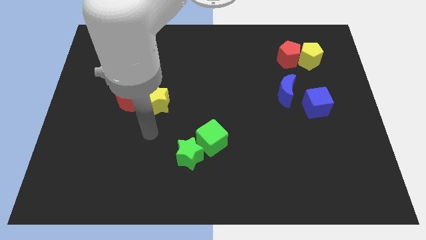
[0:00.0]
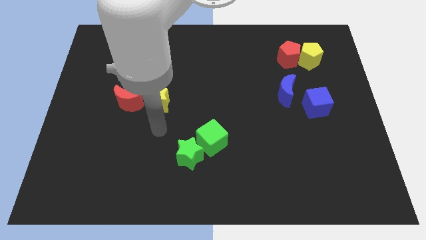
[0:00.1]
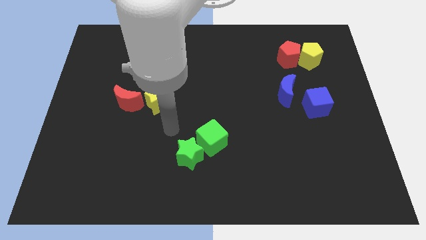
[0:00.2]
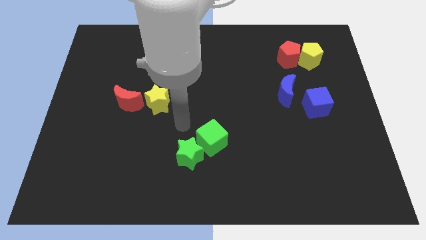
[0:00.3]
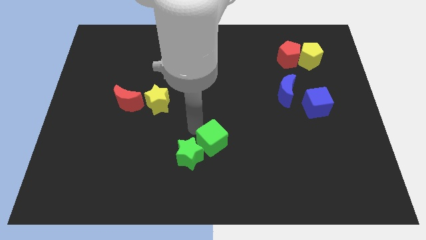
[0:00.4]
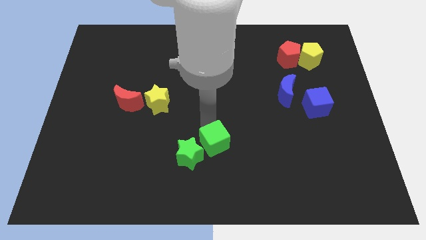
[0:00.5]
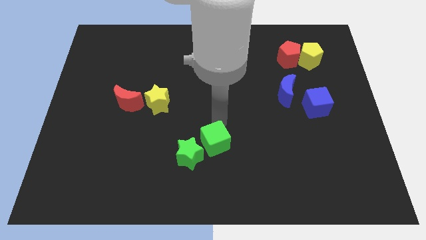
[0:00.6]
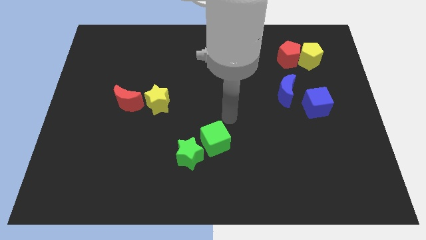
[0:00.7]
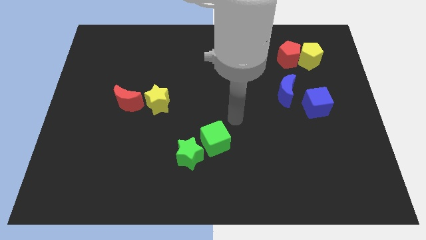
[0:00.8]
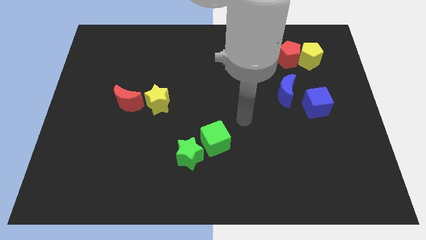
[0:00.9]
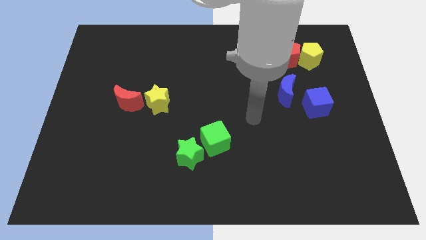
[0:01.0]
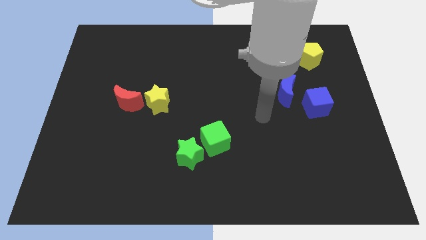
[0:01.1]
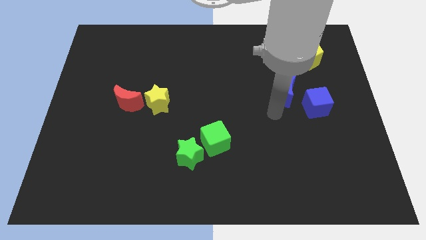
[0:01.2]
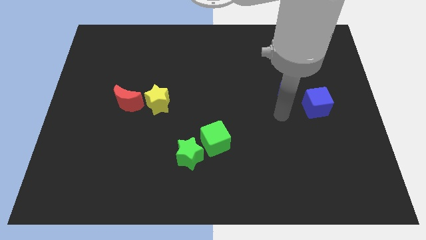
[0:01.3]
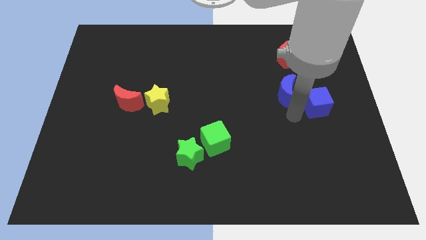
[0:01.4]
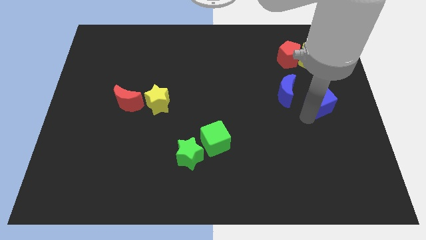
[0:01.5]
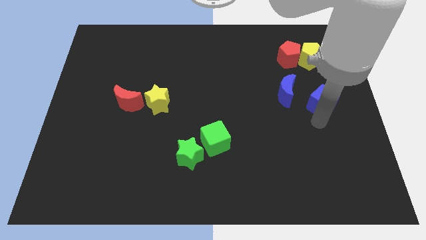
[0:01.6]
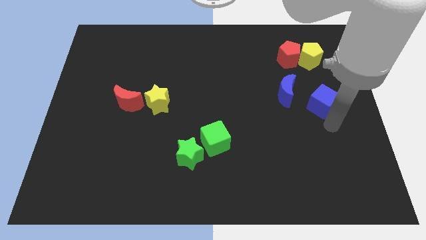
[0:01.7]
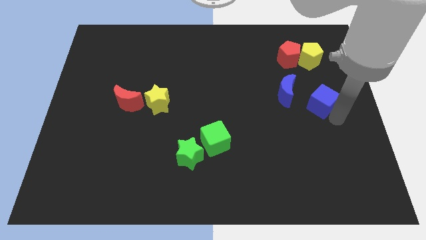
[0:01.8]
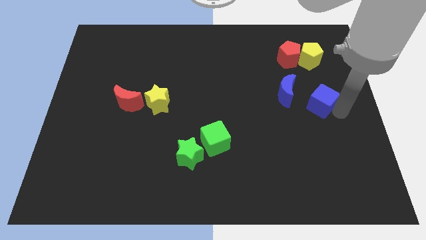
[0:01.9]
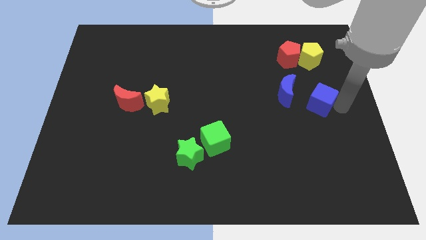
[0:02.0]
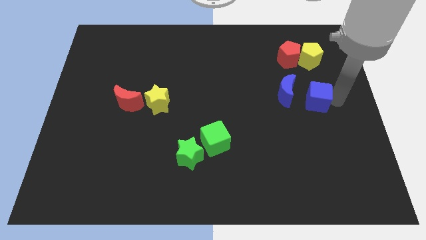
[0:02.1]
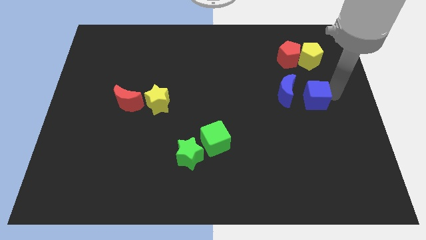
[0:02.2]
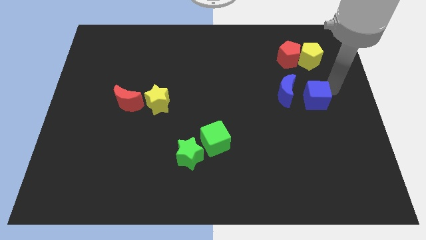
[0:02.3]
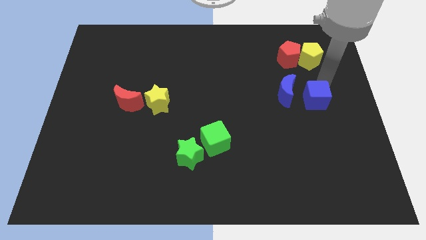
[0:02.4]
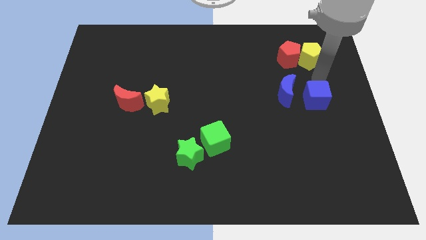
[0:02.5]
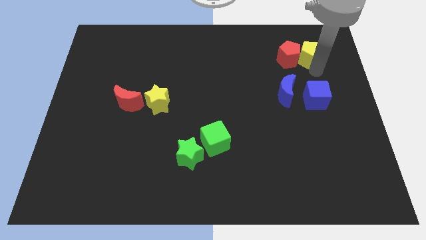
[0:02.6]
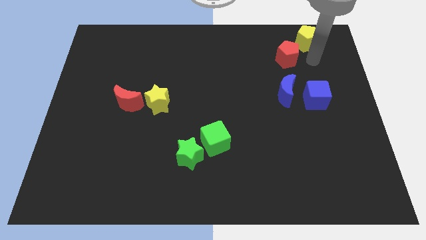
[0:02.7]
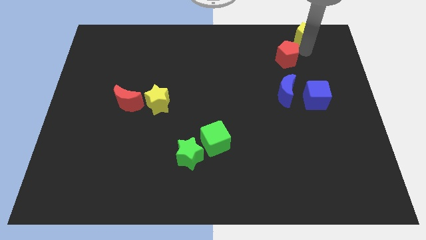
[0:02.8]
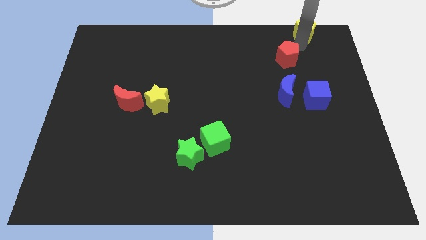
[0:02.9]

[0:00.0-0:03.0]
pull the red pentagon apart from the yellow pentagon

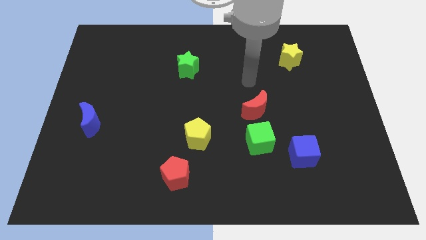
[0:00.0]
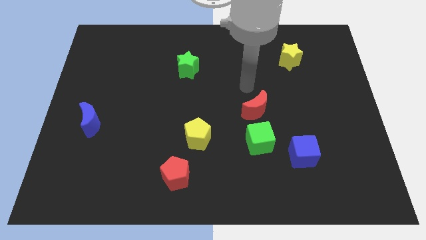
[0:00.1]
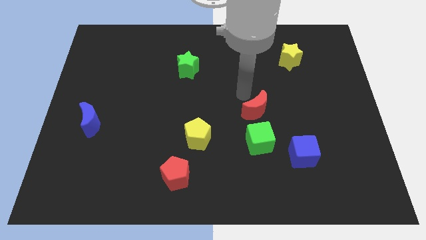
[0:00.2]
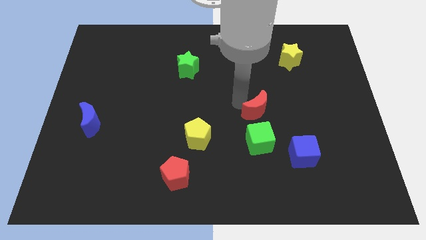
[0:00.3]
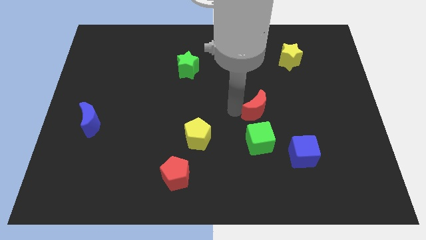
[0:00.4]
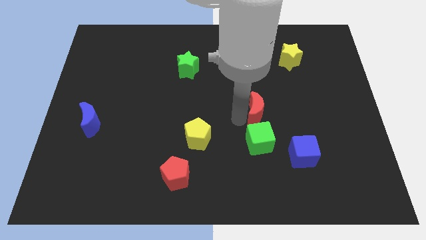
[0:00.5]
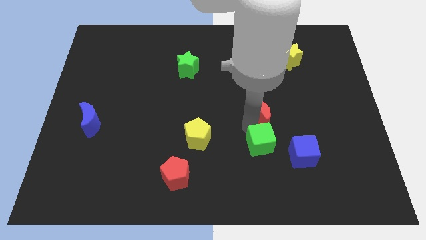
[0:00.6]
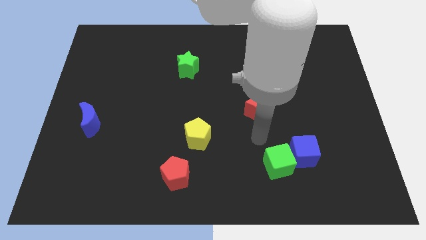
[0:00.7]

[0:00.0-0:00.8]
move the red moon away from the green cube

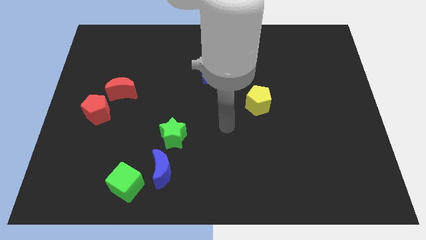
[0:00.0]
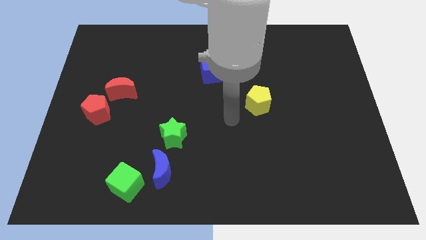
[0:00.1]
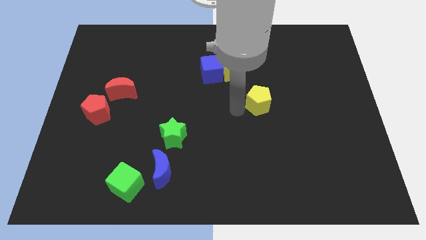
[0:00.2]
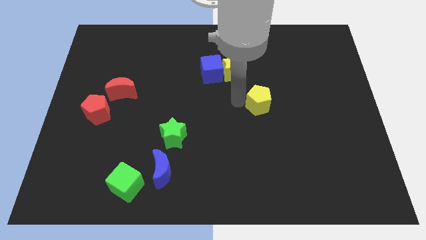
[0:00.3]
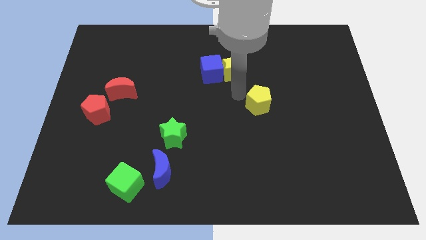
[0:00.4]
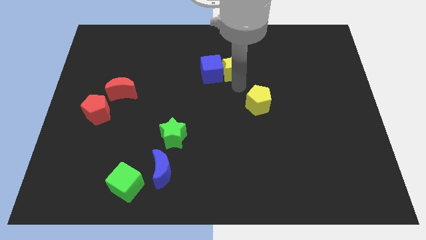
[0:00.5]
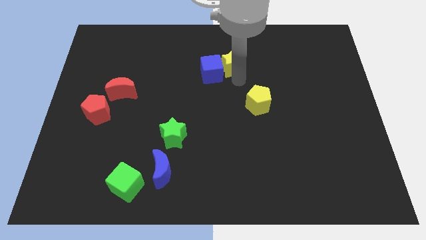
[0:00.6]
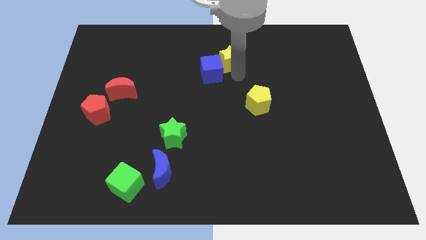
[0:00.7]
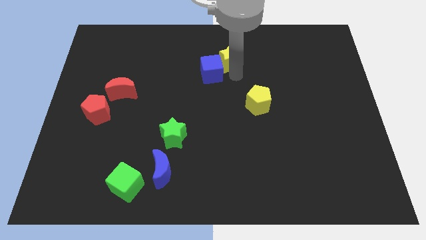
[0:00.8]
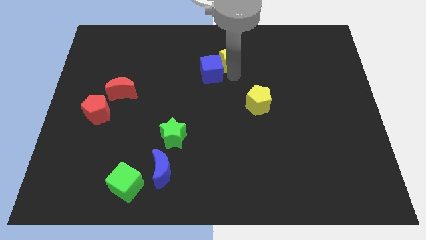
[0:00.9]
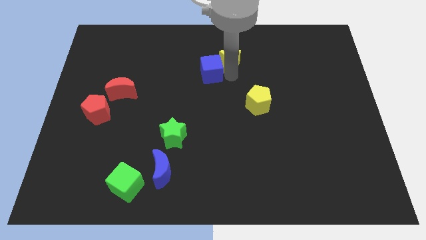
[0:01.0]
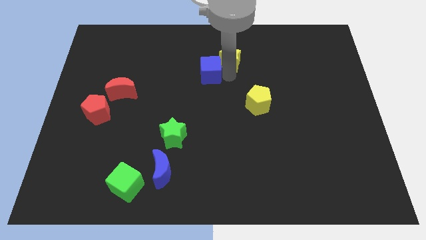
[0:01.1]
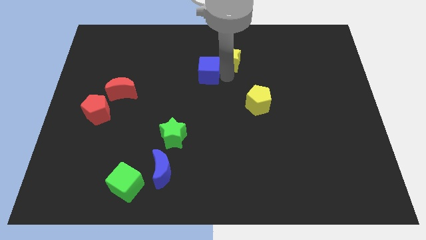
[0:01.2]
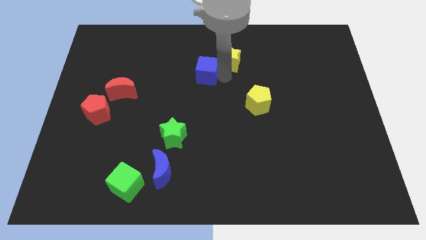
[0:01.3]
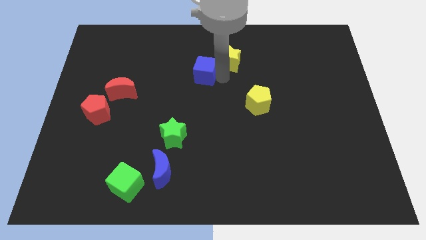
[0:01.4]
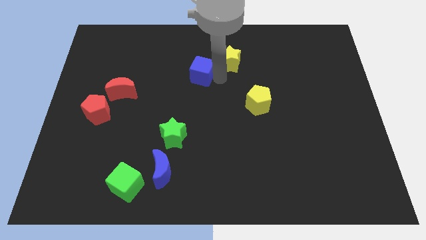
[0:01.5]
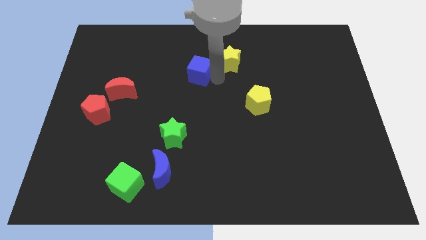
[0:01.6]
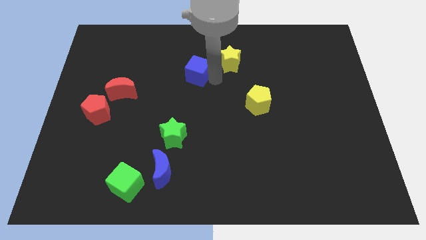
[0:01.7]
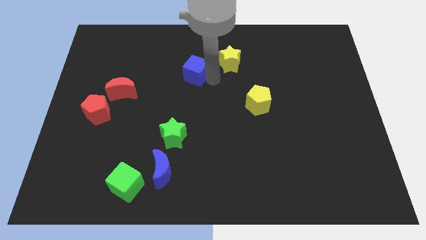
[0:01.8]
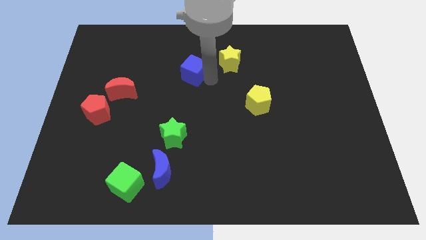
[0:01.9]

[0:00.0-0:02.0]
pull the blue cube apart from the yellow star

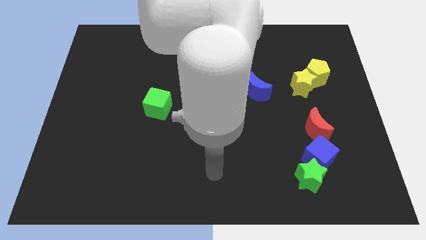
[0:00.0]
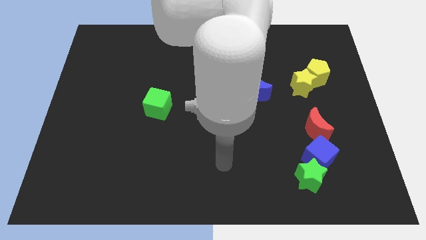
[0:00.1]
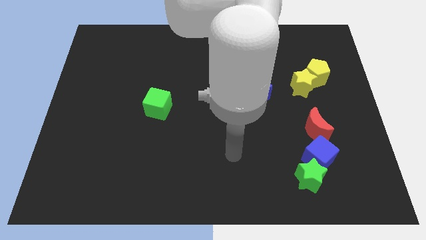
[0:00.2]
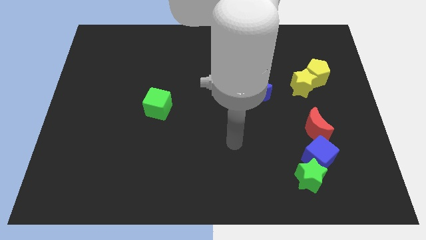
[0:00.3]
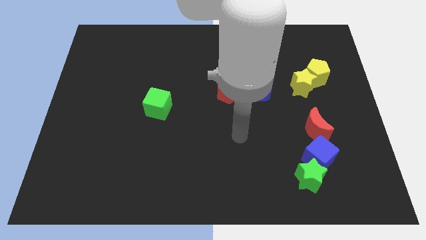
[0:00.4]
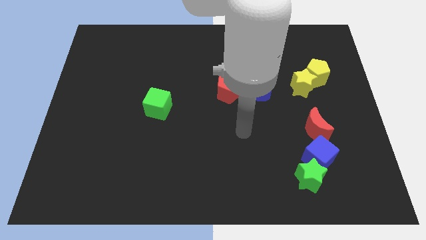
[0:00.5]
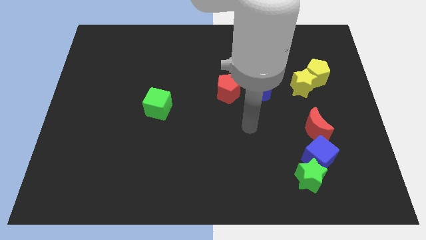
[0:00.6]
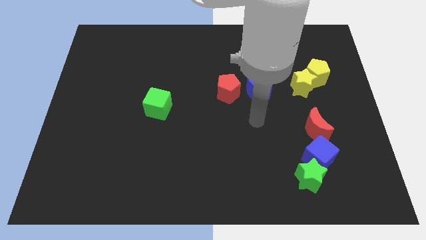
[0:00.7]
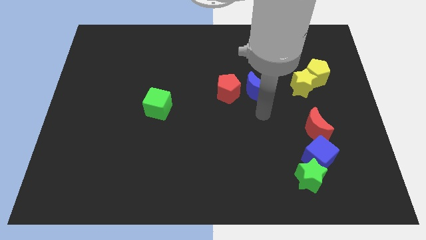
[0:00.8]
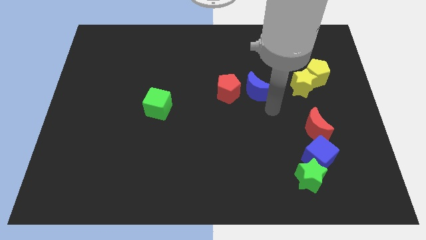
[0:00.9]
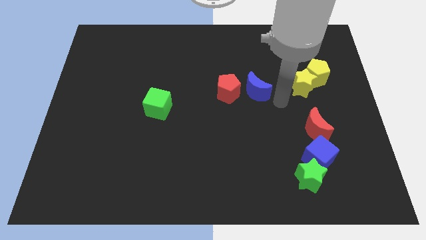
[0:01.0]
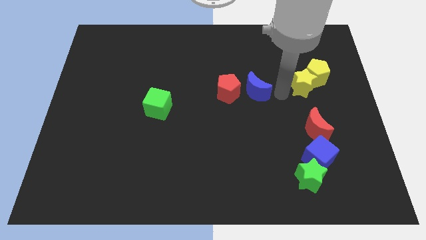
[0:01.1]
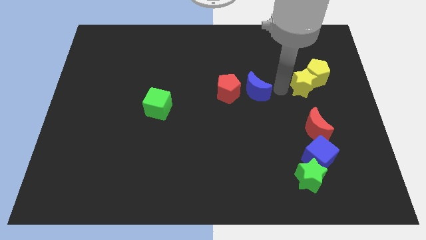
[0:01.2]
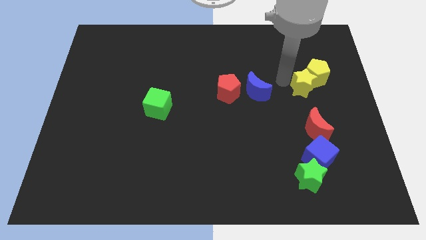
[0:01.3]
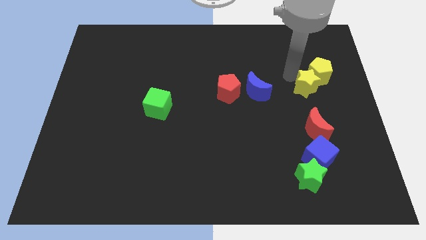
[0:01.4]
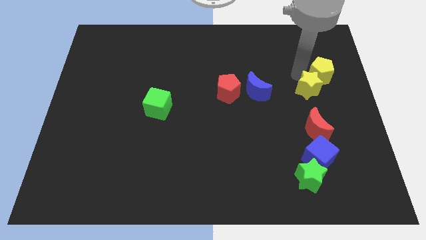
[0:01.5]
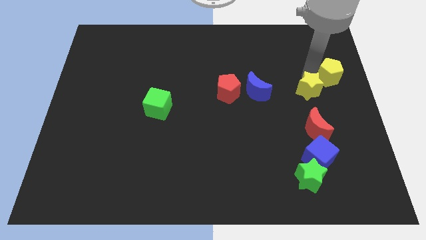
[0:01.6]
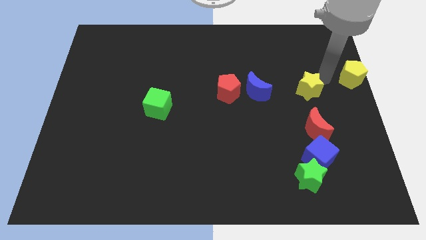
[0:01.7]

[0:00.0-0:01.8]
separate the yellow star from the yellow pentagon

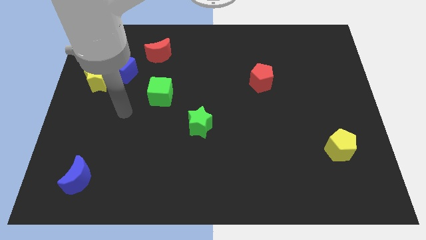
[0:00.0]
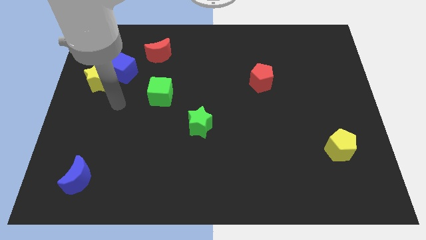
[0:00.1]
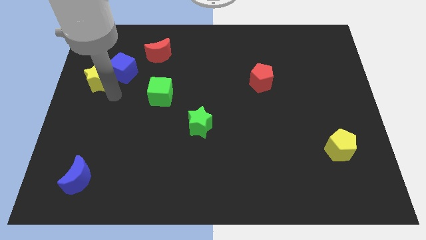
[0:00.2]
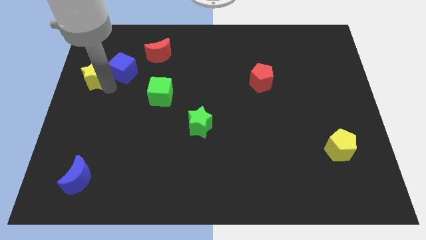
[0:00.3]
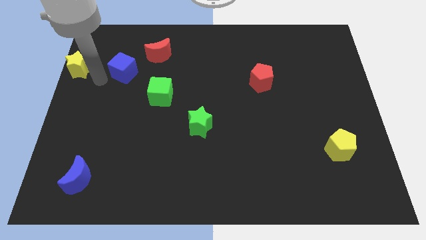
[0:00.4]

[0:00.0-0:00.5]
move the blue cube away from the yellow star

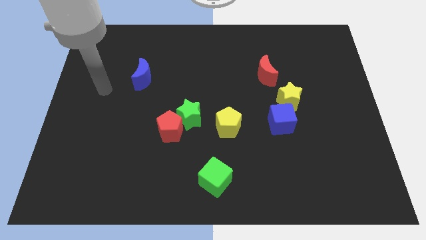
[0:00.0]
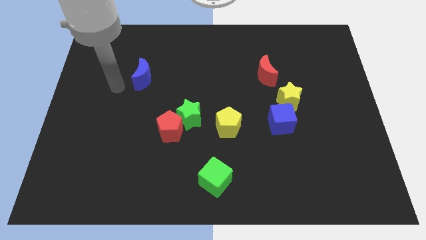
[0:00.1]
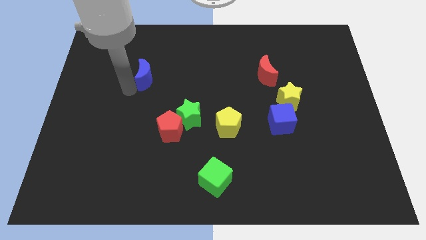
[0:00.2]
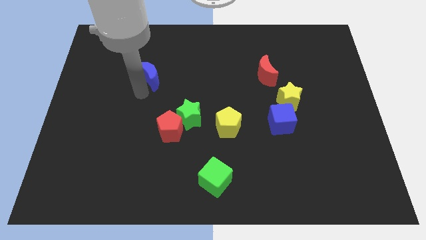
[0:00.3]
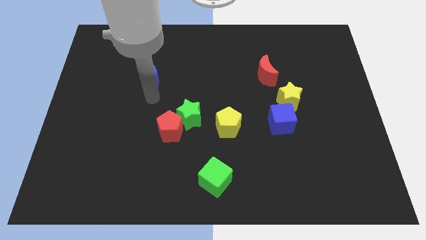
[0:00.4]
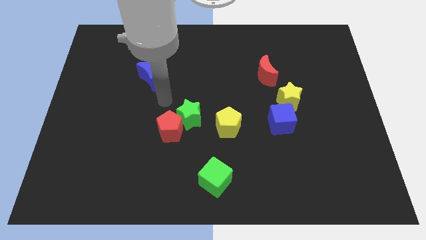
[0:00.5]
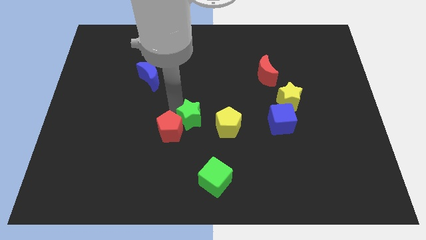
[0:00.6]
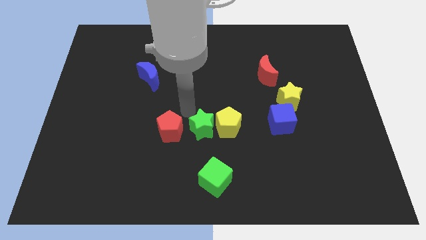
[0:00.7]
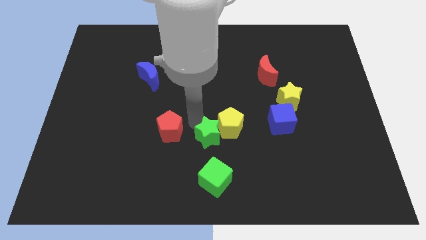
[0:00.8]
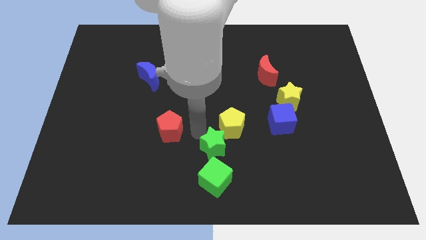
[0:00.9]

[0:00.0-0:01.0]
separate the red pentagon from the green star
